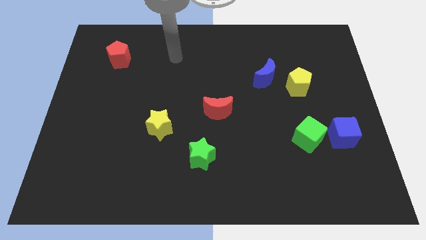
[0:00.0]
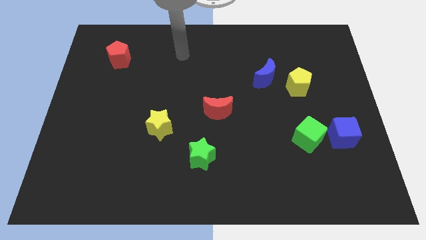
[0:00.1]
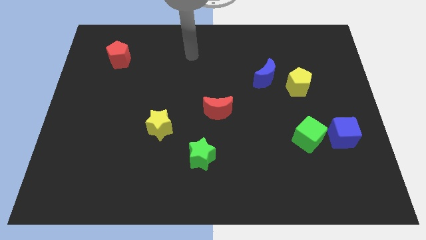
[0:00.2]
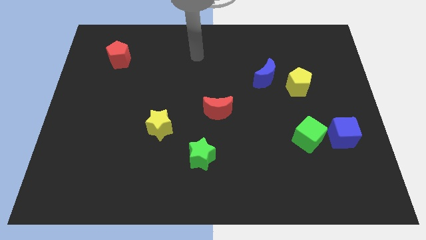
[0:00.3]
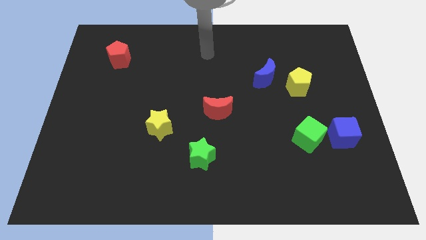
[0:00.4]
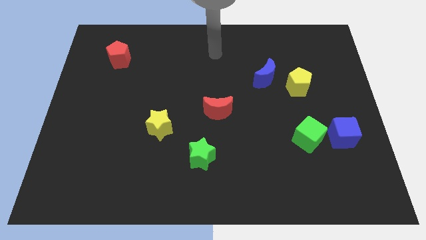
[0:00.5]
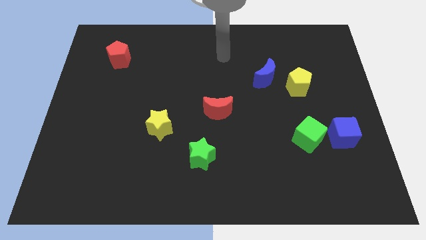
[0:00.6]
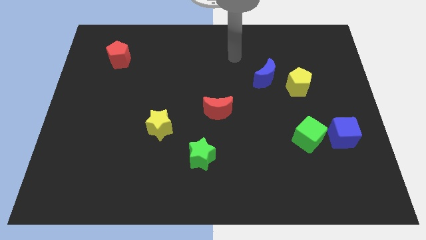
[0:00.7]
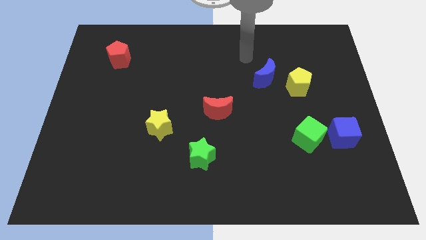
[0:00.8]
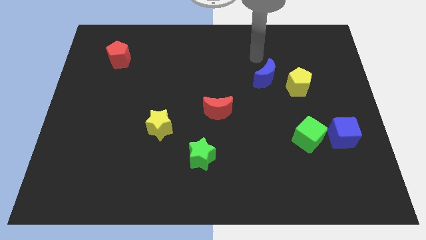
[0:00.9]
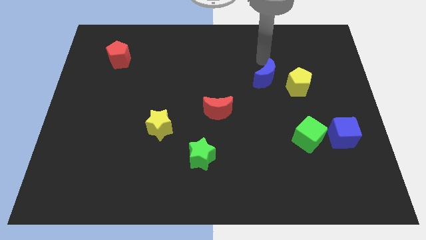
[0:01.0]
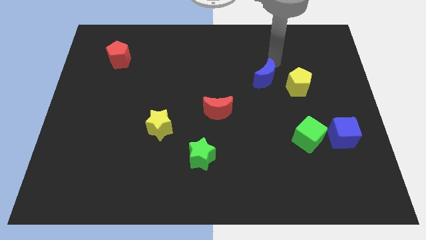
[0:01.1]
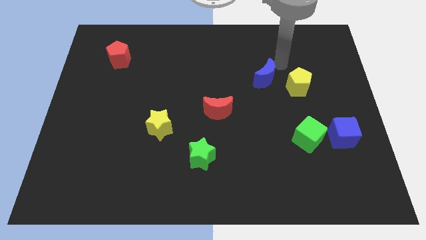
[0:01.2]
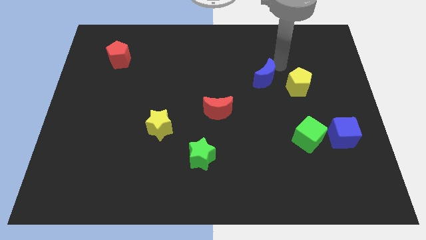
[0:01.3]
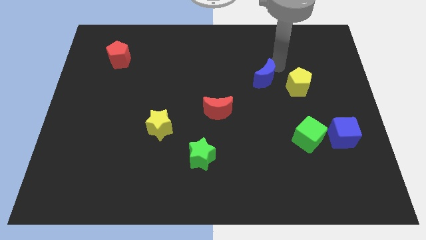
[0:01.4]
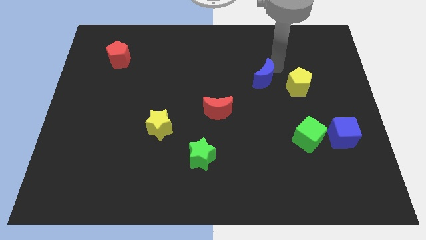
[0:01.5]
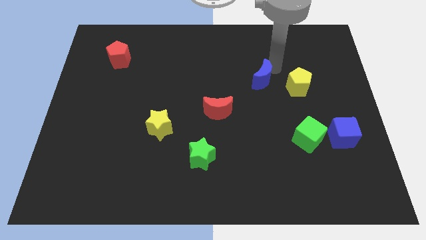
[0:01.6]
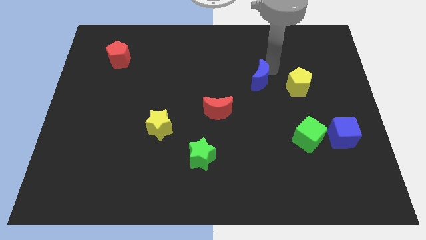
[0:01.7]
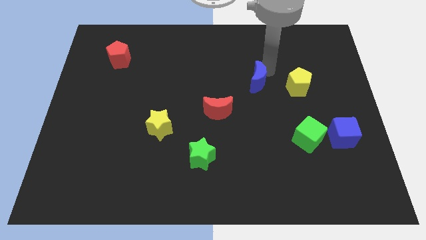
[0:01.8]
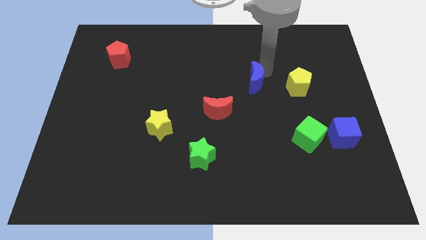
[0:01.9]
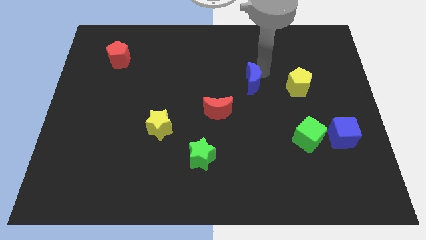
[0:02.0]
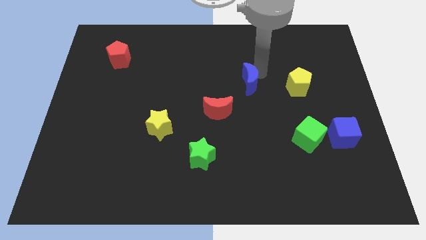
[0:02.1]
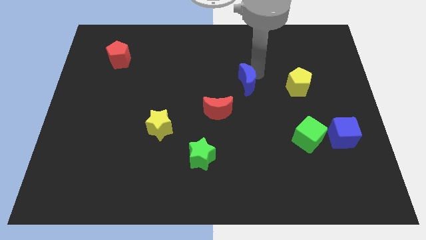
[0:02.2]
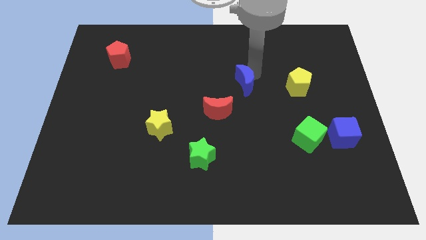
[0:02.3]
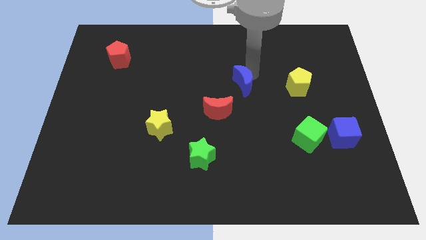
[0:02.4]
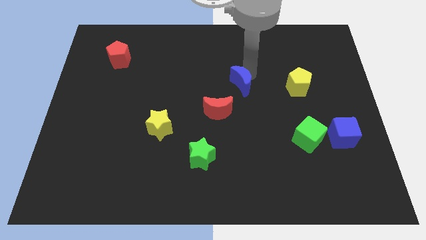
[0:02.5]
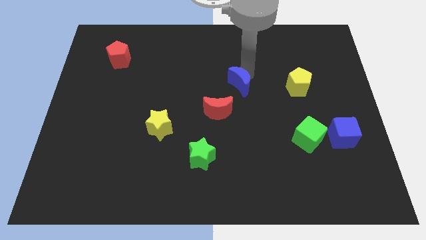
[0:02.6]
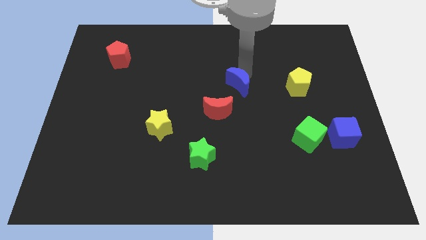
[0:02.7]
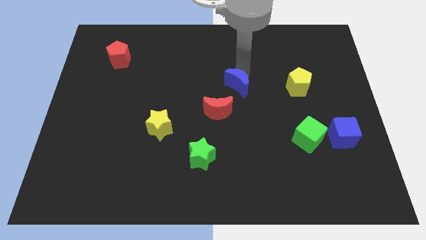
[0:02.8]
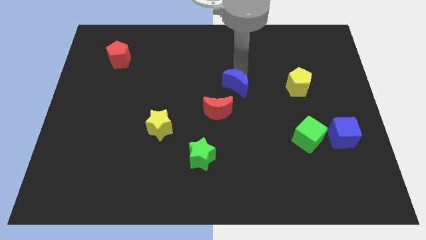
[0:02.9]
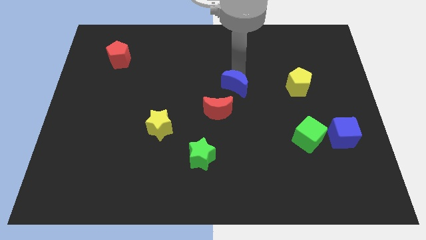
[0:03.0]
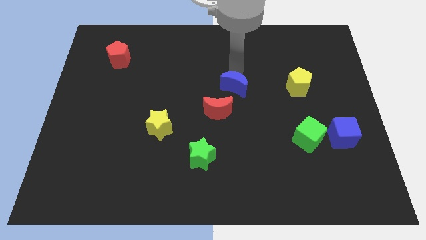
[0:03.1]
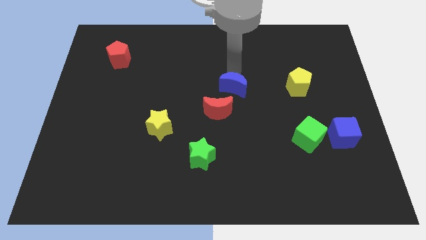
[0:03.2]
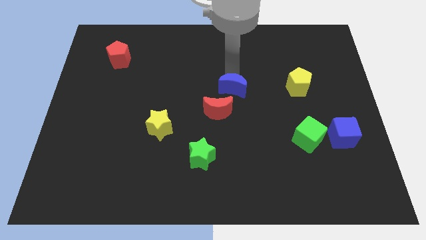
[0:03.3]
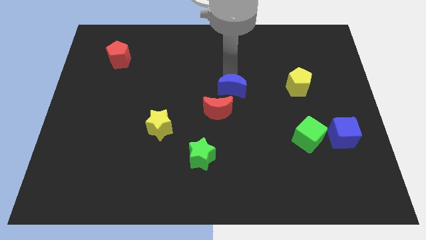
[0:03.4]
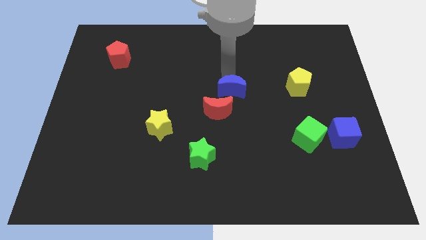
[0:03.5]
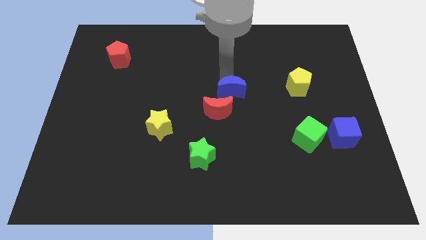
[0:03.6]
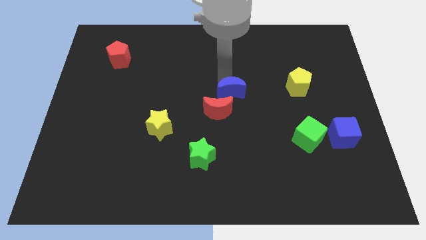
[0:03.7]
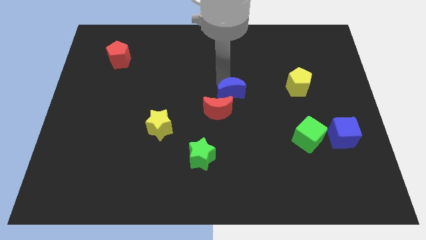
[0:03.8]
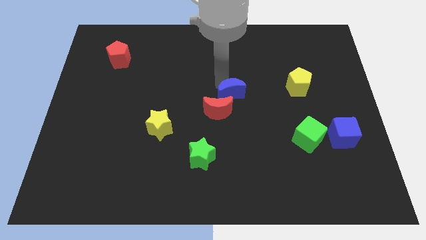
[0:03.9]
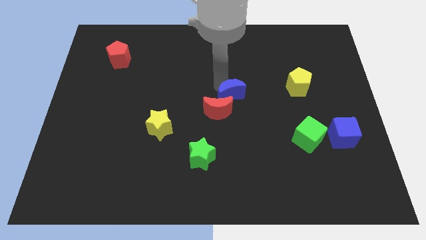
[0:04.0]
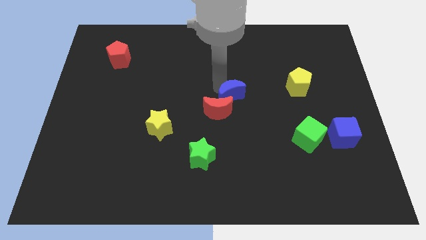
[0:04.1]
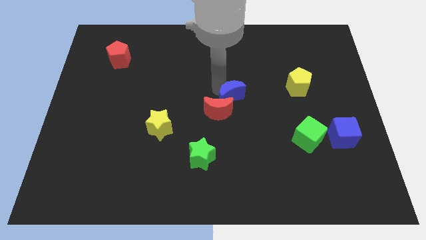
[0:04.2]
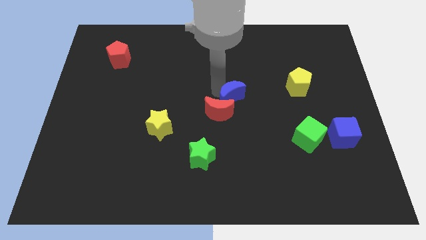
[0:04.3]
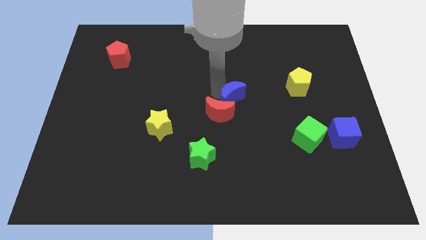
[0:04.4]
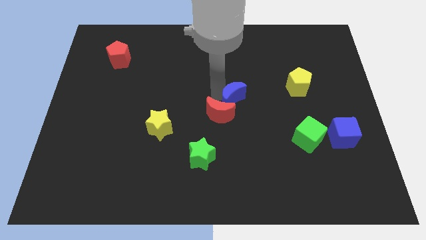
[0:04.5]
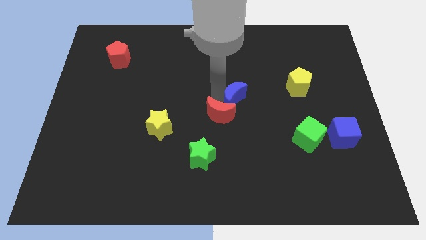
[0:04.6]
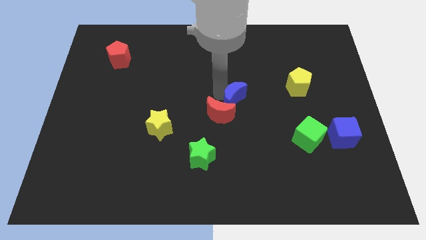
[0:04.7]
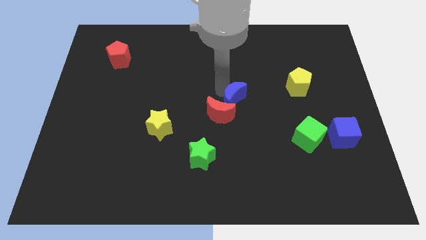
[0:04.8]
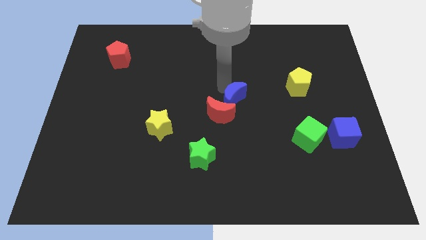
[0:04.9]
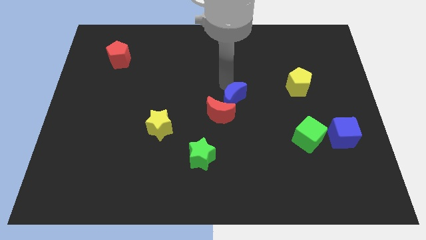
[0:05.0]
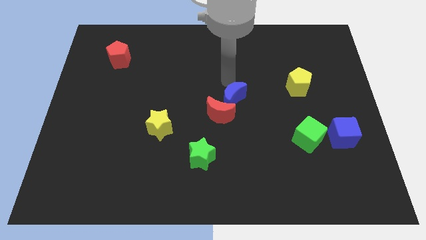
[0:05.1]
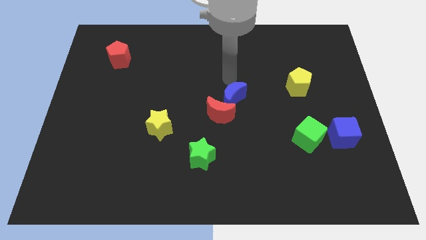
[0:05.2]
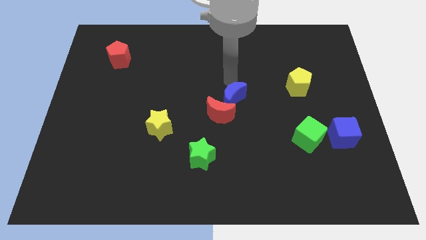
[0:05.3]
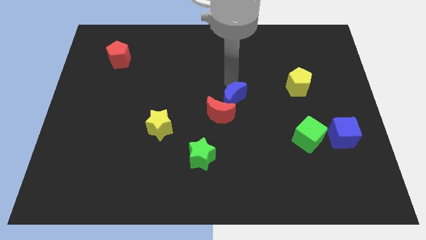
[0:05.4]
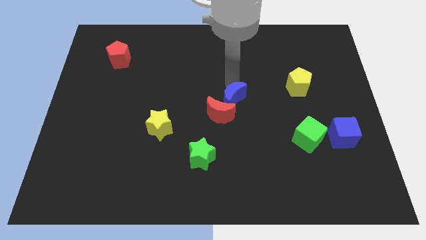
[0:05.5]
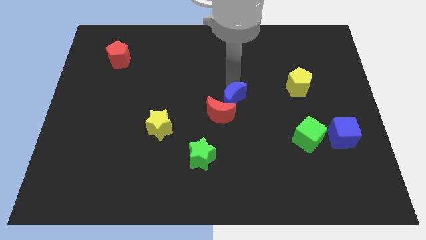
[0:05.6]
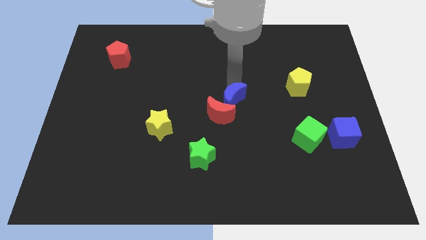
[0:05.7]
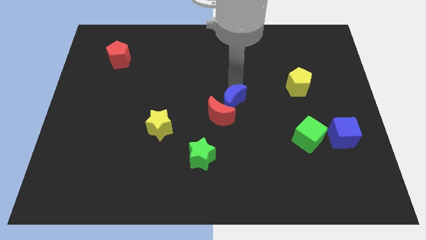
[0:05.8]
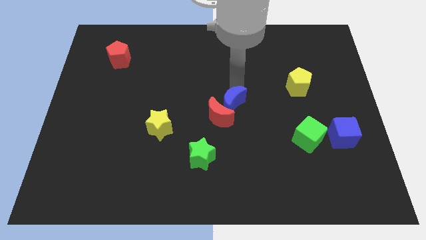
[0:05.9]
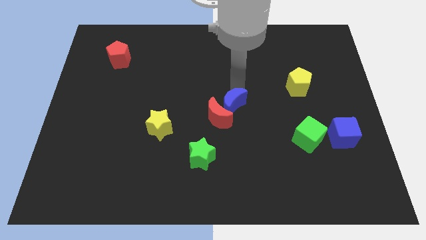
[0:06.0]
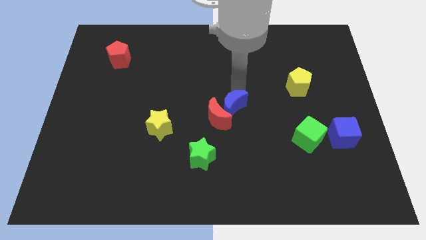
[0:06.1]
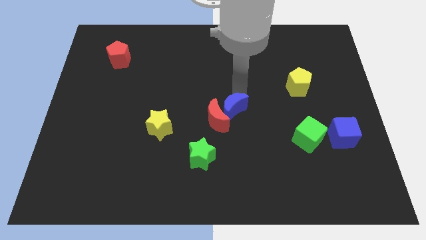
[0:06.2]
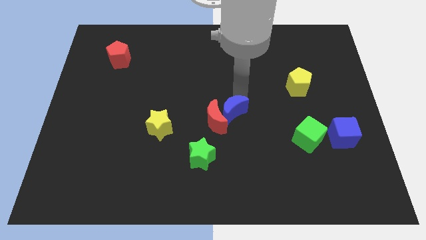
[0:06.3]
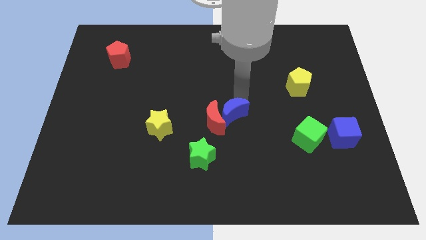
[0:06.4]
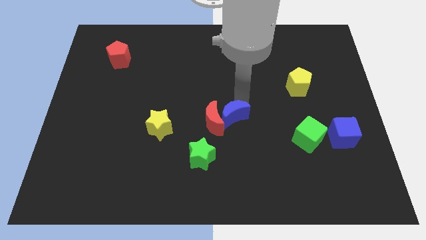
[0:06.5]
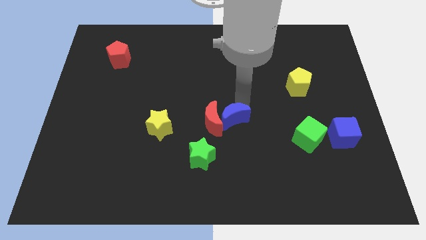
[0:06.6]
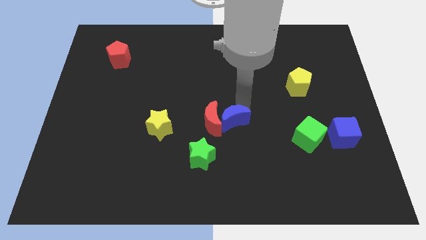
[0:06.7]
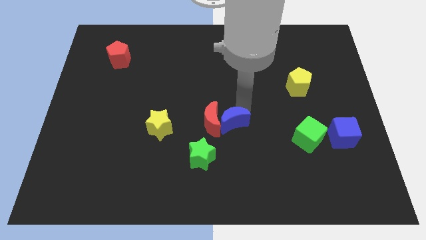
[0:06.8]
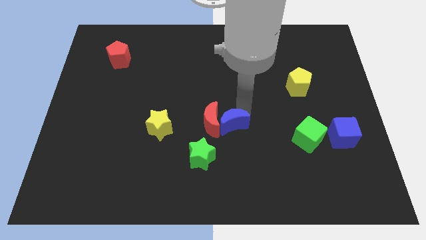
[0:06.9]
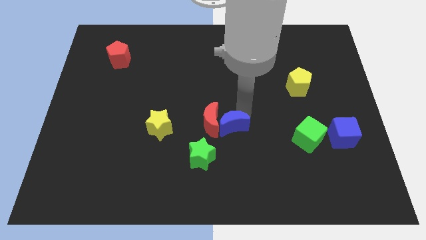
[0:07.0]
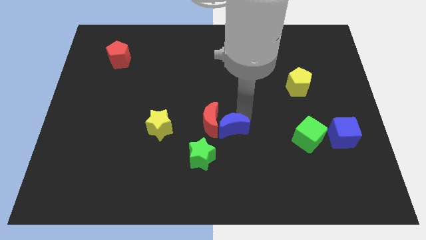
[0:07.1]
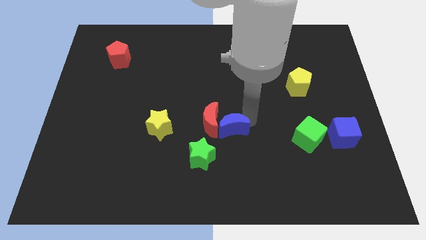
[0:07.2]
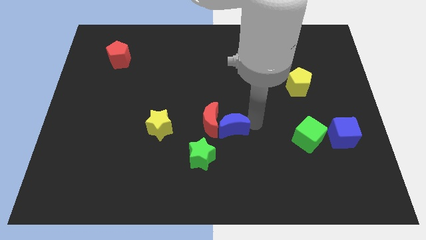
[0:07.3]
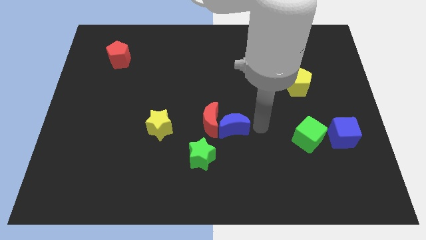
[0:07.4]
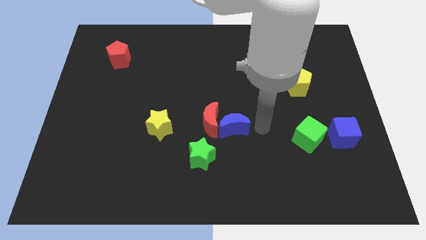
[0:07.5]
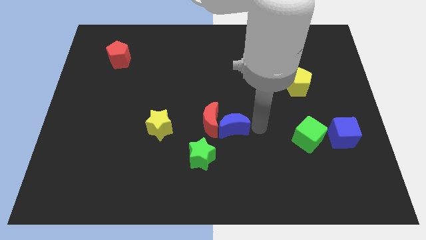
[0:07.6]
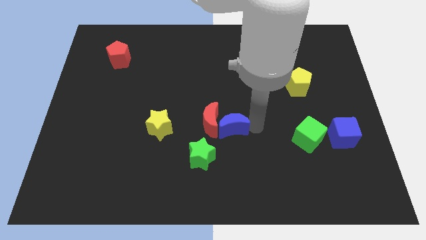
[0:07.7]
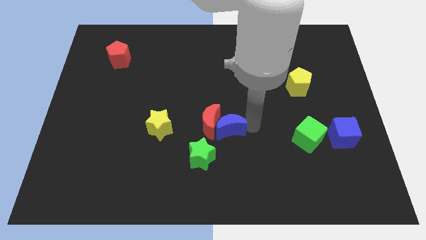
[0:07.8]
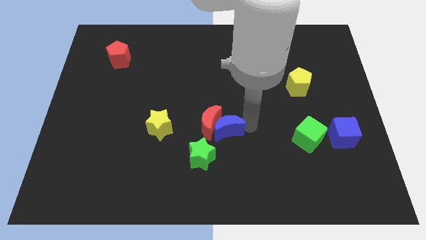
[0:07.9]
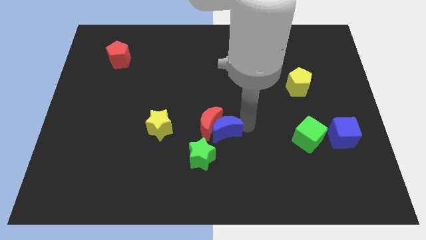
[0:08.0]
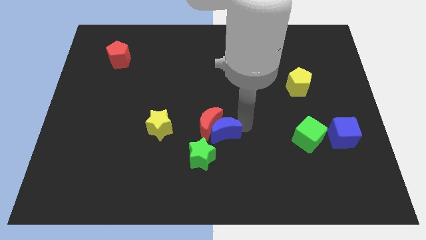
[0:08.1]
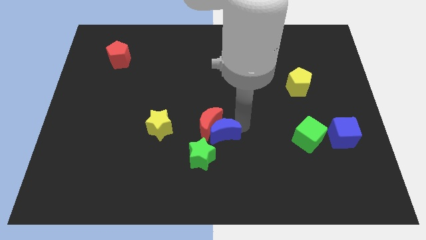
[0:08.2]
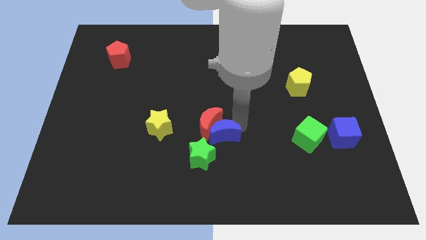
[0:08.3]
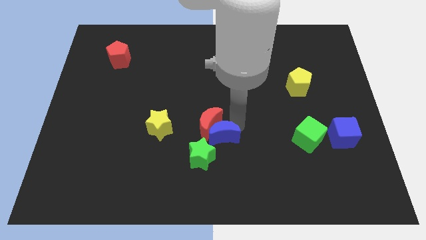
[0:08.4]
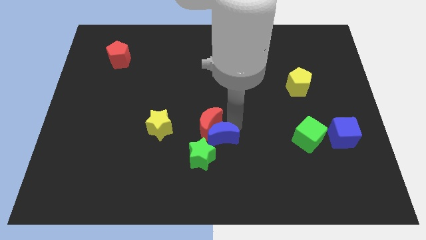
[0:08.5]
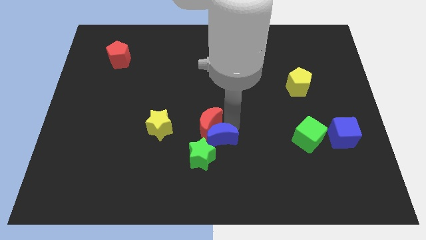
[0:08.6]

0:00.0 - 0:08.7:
slide the blue moon down and then to the left
